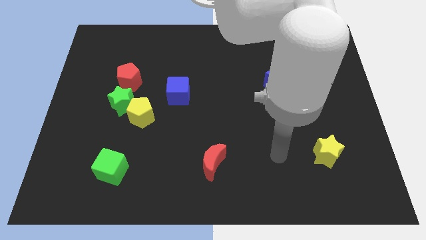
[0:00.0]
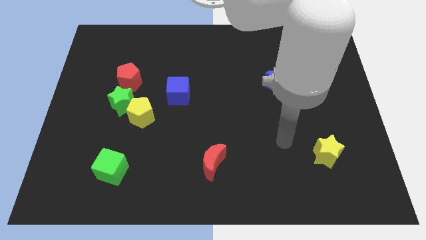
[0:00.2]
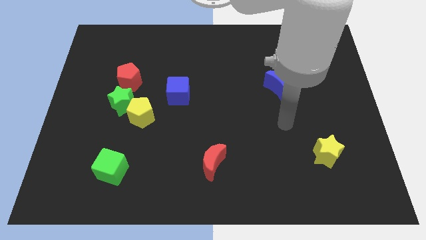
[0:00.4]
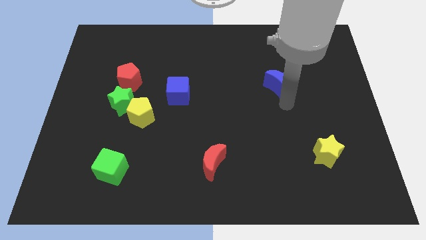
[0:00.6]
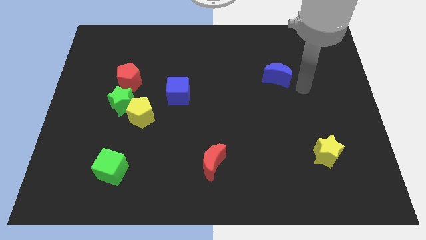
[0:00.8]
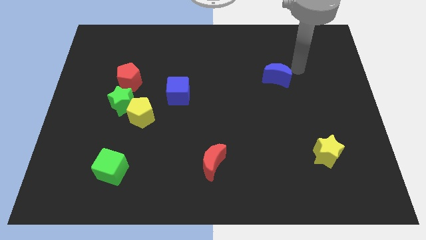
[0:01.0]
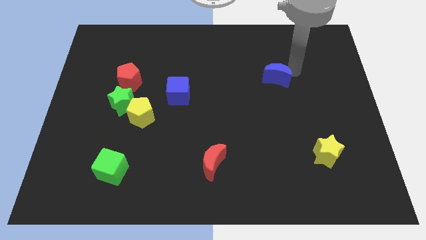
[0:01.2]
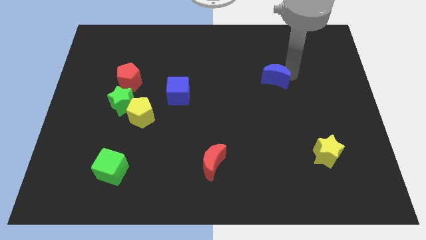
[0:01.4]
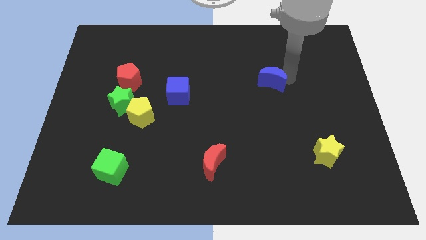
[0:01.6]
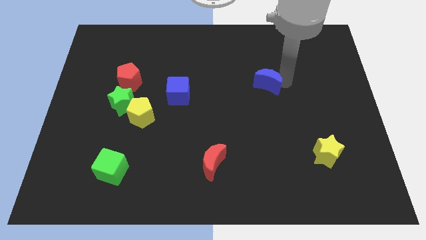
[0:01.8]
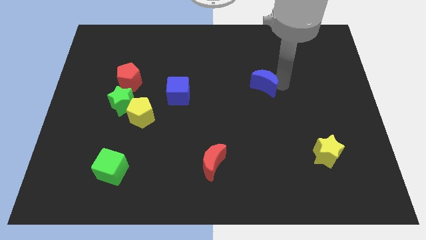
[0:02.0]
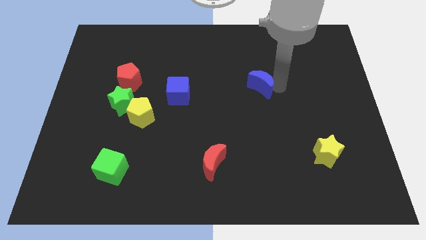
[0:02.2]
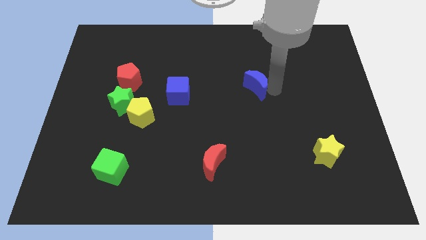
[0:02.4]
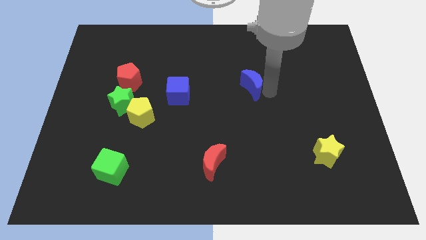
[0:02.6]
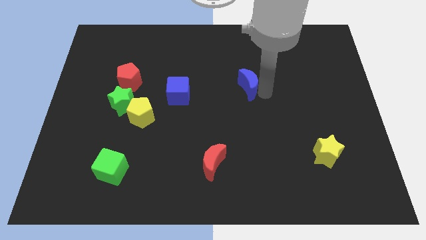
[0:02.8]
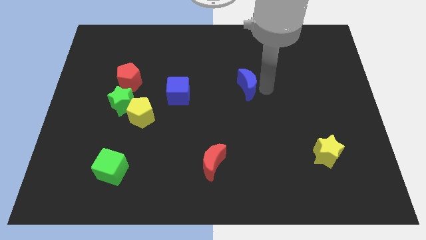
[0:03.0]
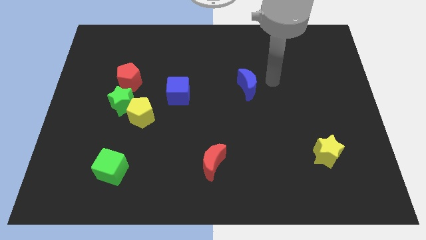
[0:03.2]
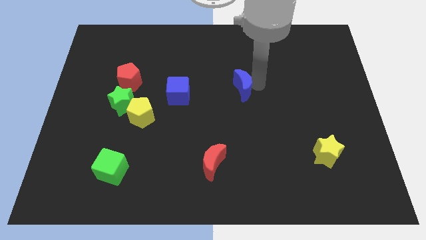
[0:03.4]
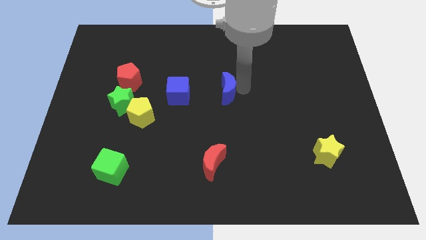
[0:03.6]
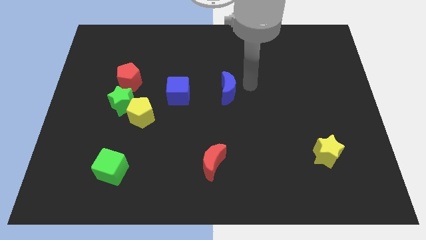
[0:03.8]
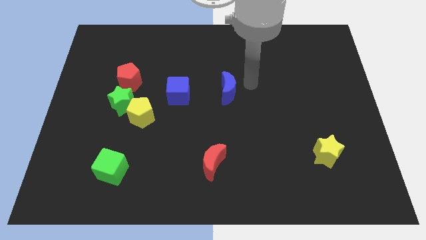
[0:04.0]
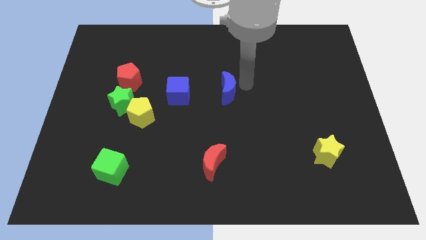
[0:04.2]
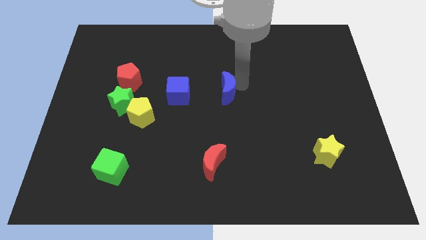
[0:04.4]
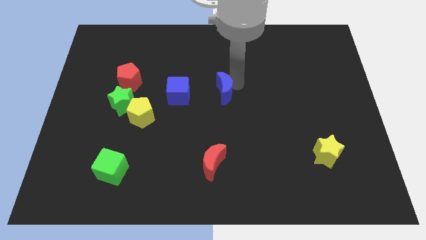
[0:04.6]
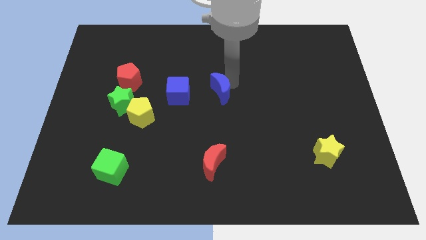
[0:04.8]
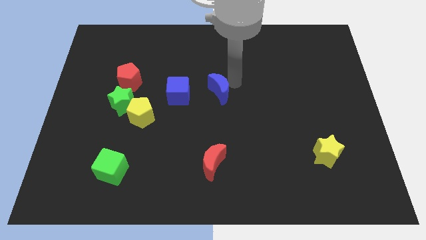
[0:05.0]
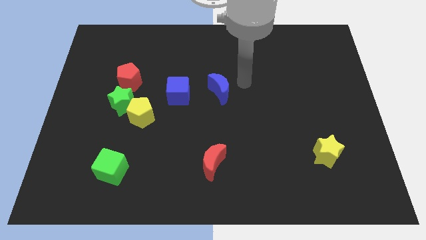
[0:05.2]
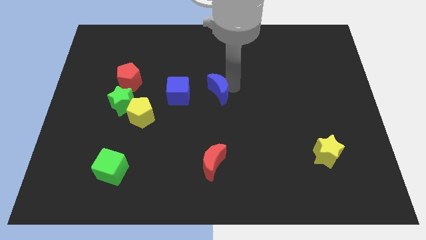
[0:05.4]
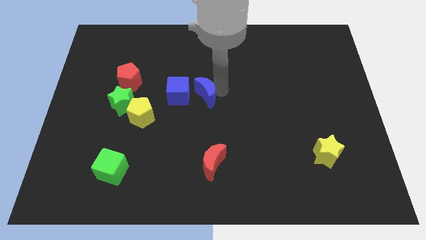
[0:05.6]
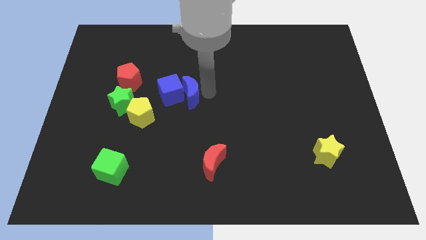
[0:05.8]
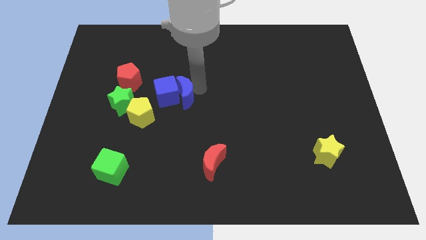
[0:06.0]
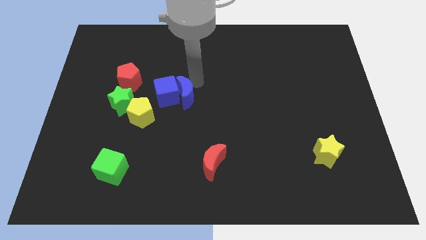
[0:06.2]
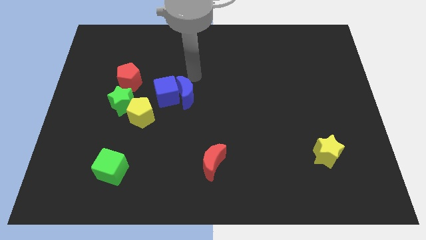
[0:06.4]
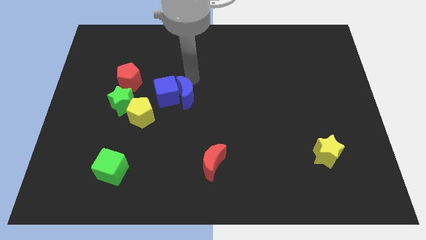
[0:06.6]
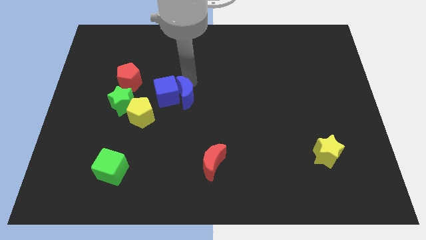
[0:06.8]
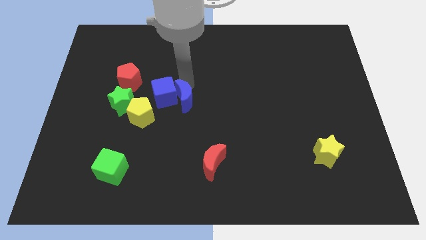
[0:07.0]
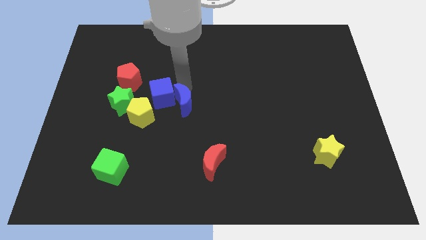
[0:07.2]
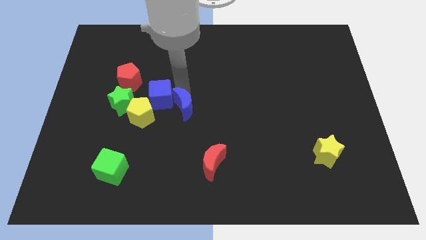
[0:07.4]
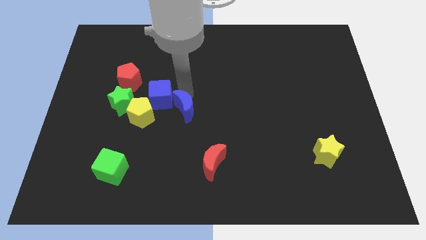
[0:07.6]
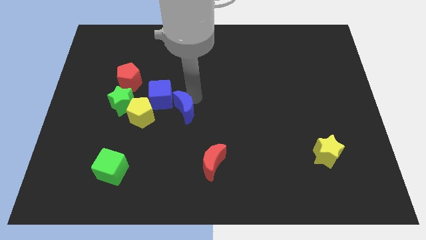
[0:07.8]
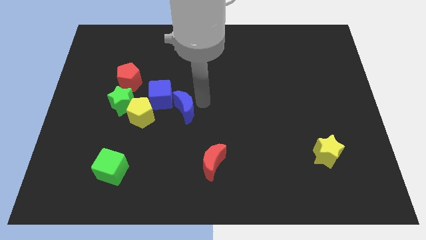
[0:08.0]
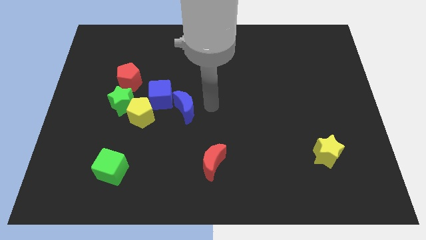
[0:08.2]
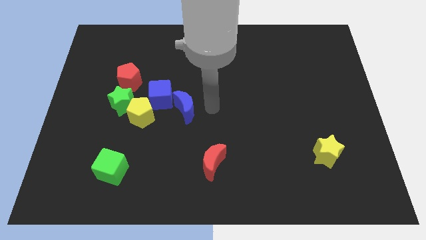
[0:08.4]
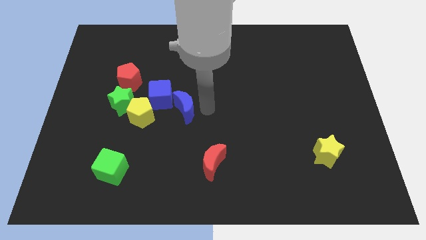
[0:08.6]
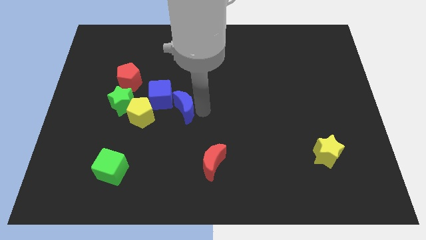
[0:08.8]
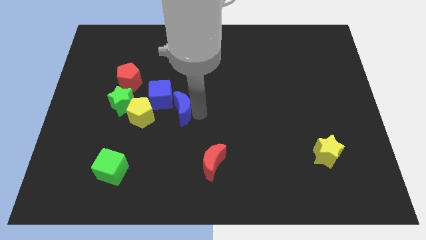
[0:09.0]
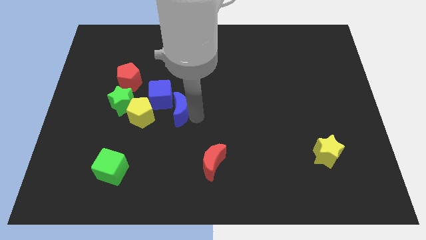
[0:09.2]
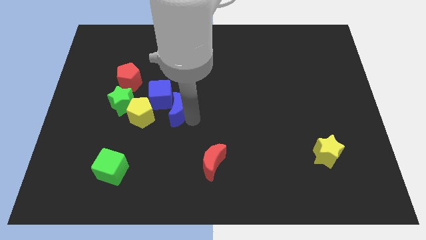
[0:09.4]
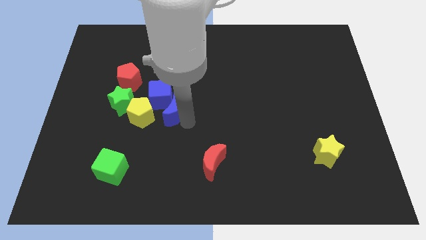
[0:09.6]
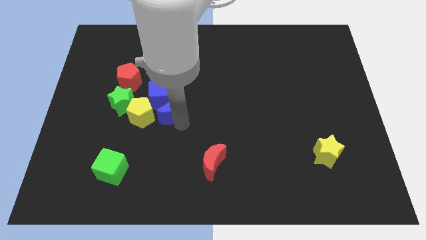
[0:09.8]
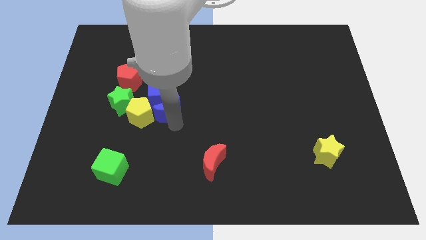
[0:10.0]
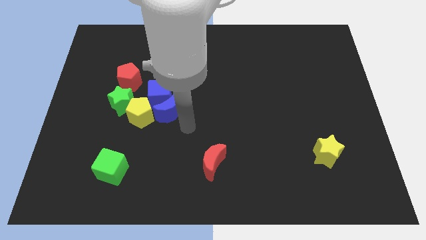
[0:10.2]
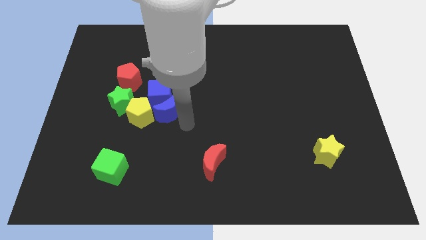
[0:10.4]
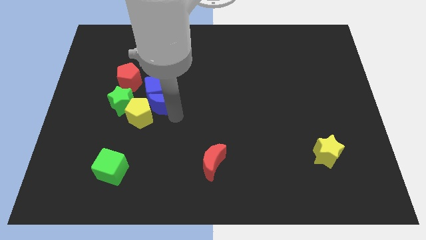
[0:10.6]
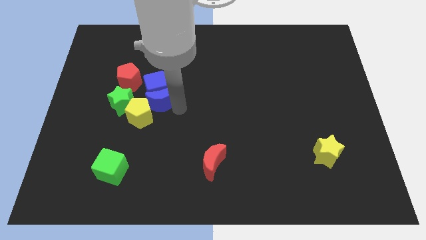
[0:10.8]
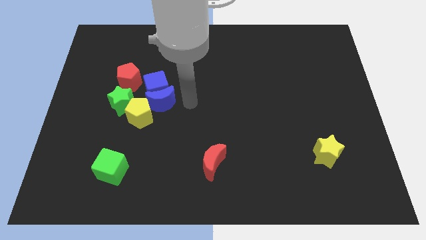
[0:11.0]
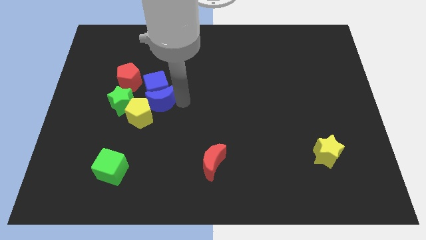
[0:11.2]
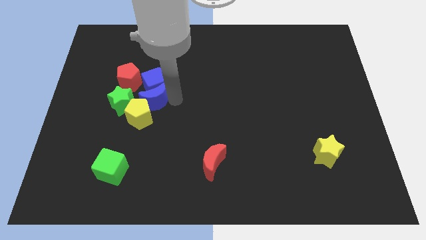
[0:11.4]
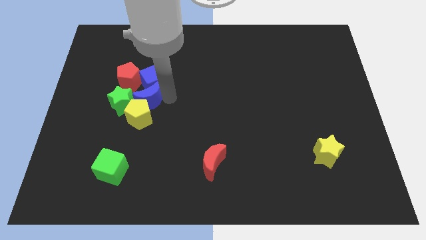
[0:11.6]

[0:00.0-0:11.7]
slide the blue moon towards the green star

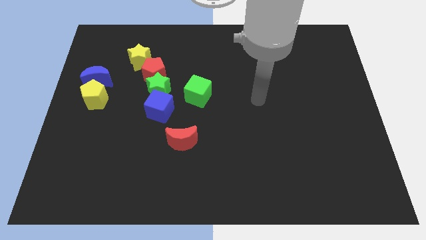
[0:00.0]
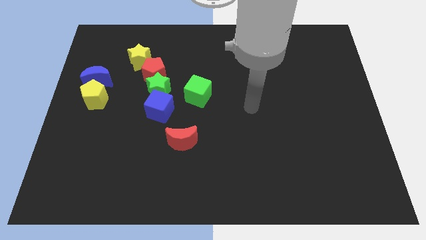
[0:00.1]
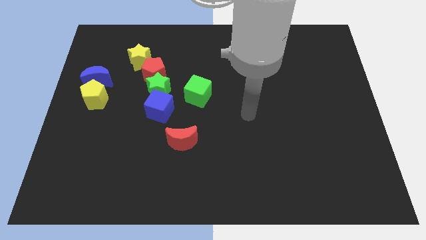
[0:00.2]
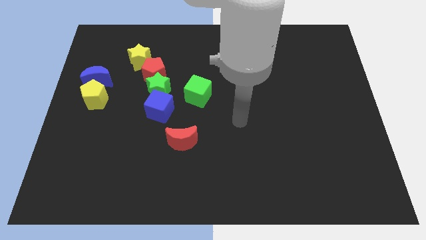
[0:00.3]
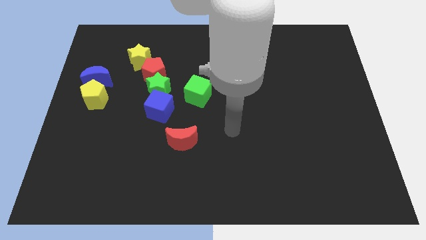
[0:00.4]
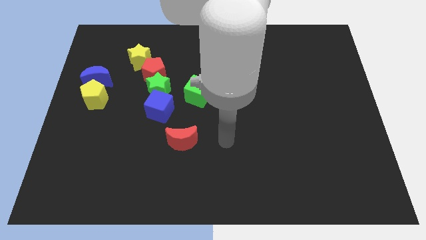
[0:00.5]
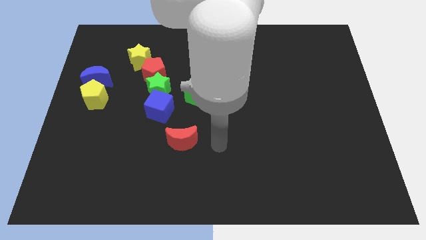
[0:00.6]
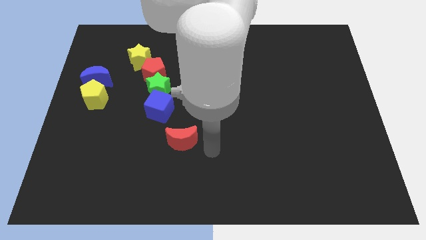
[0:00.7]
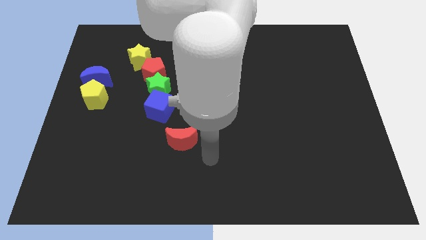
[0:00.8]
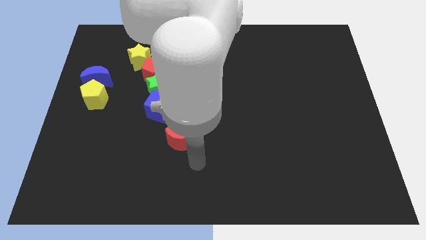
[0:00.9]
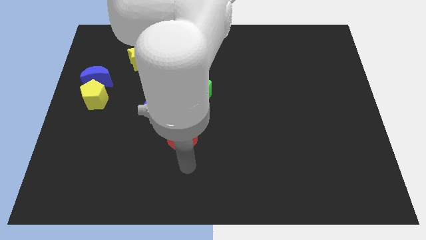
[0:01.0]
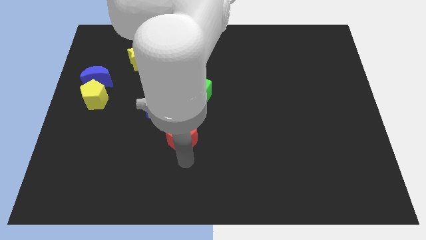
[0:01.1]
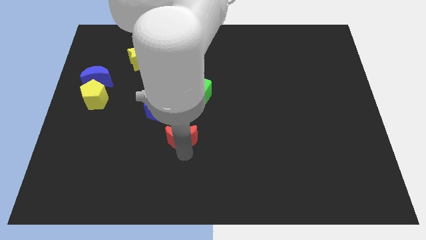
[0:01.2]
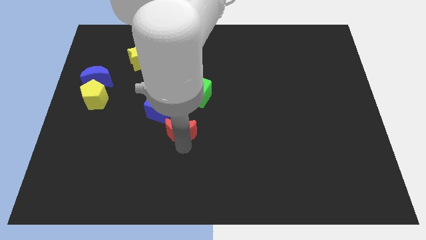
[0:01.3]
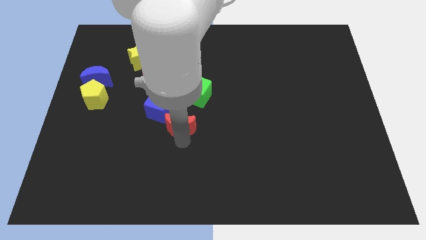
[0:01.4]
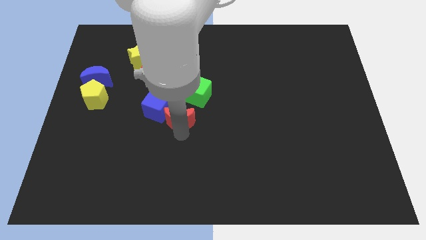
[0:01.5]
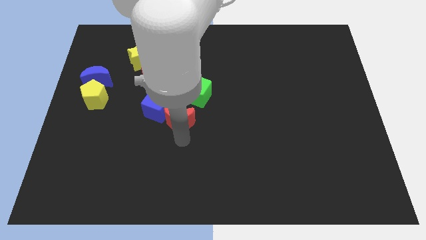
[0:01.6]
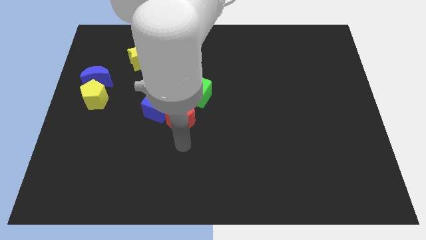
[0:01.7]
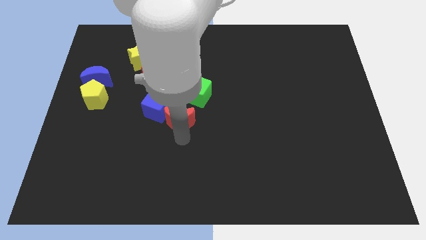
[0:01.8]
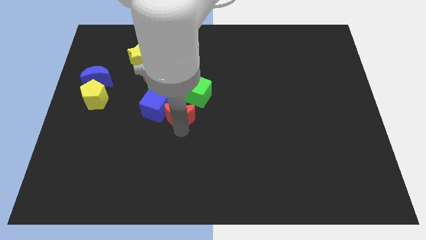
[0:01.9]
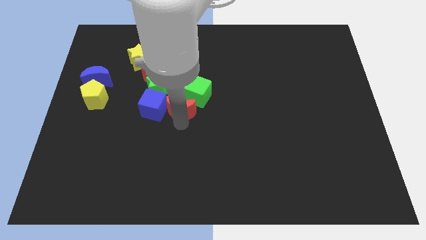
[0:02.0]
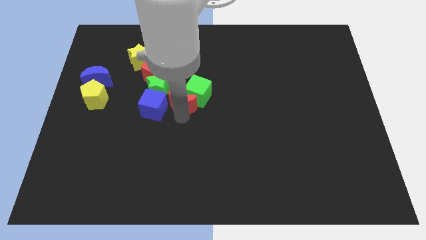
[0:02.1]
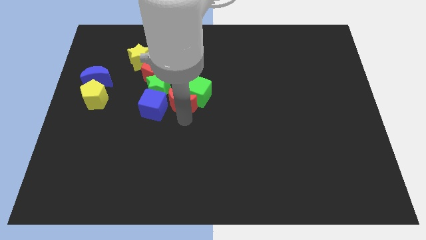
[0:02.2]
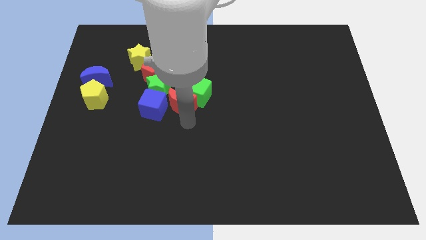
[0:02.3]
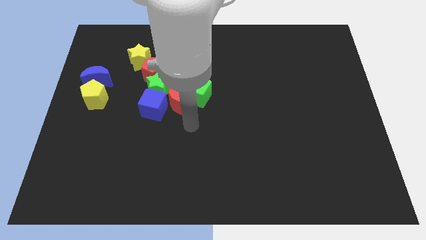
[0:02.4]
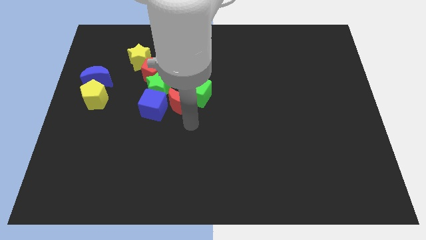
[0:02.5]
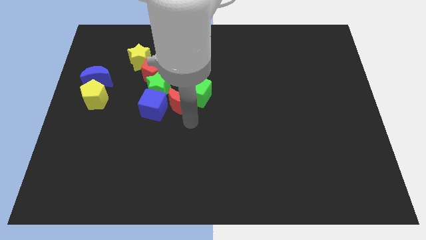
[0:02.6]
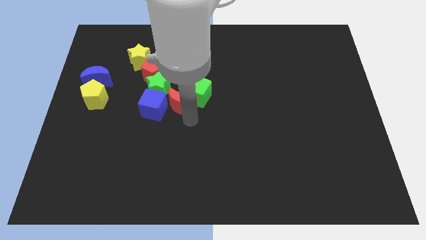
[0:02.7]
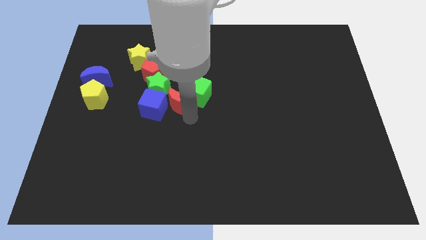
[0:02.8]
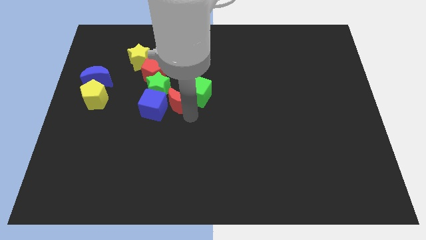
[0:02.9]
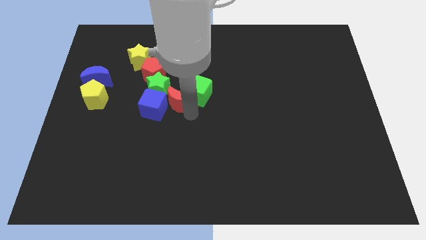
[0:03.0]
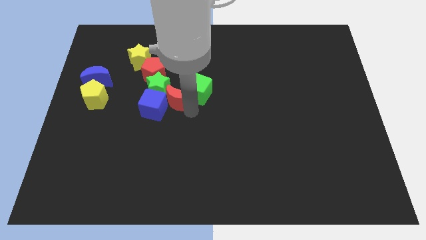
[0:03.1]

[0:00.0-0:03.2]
push the red moon towards the green star
